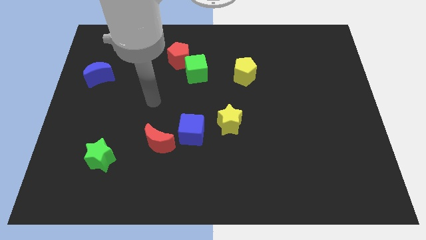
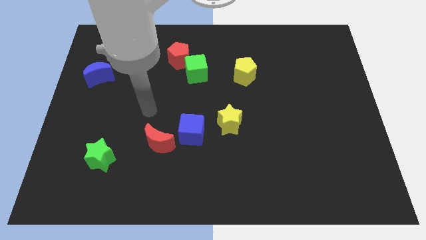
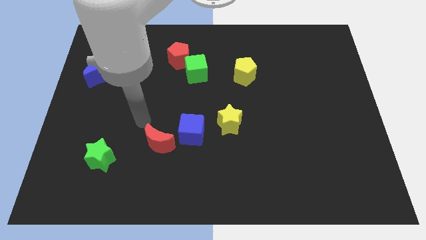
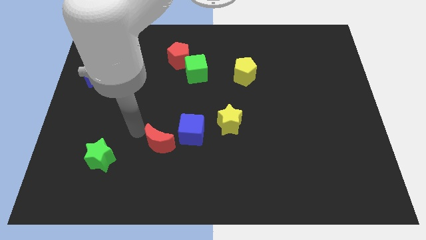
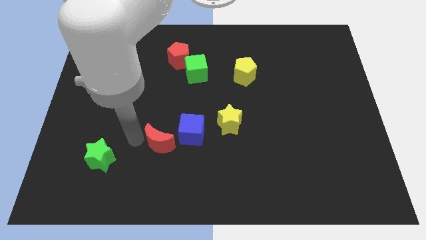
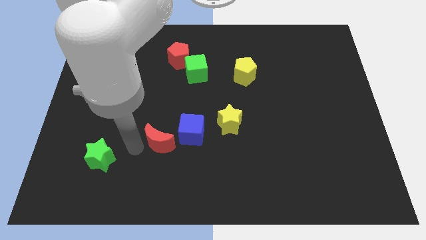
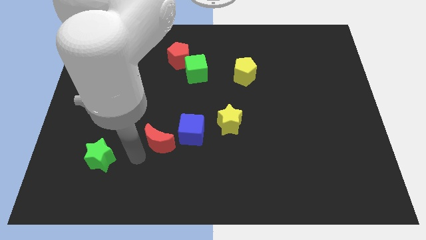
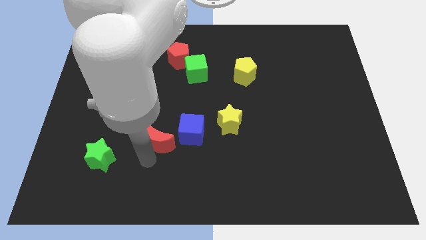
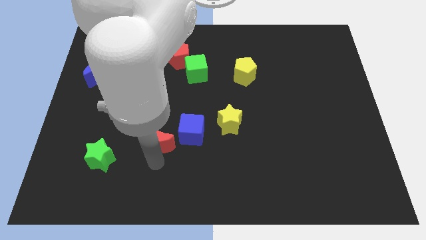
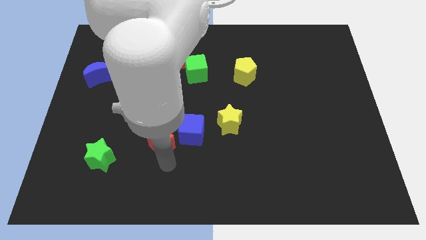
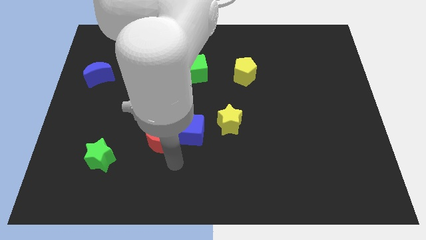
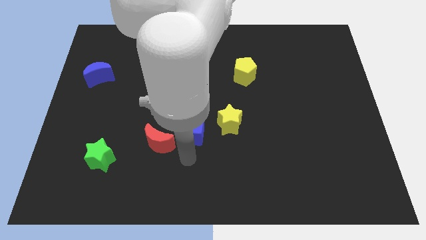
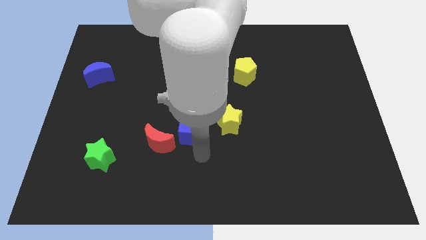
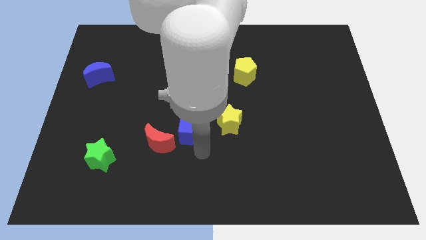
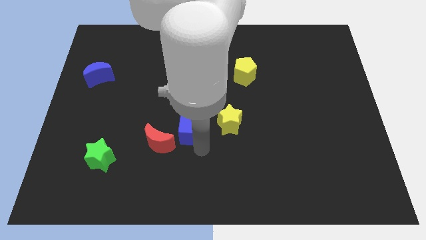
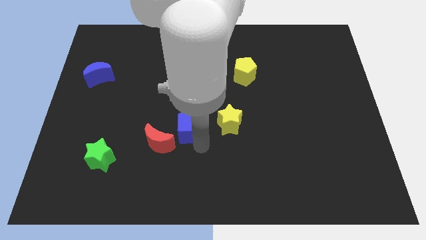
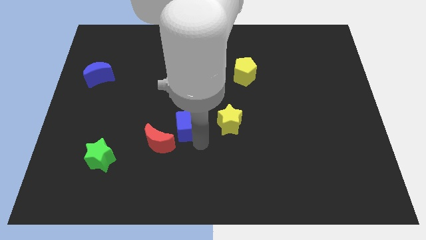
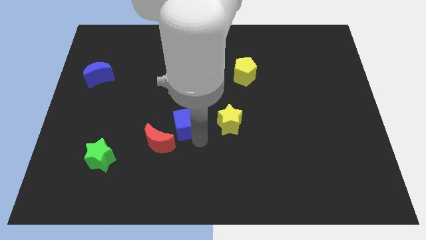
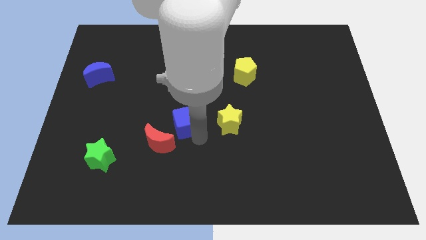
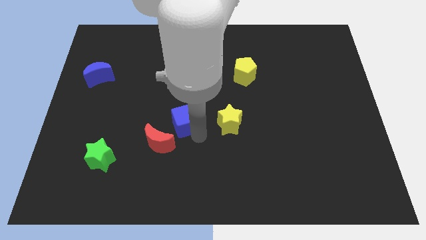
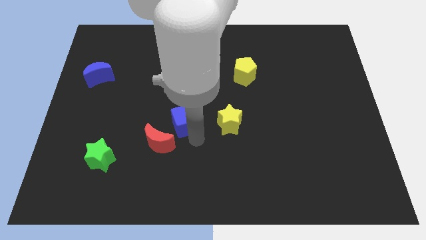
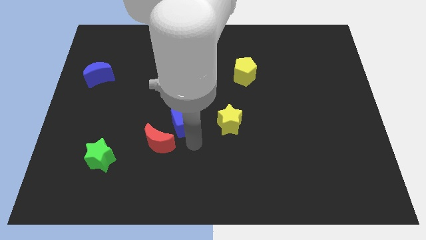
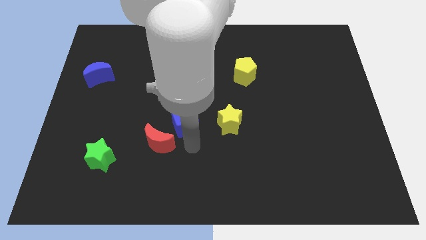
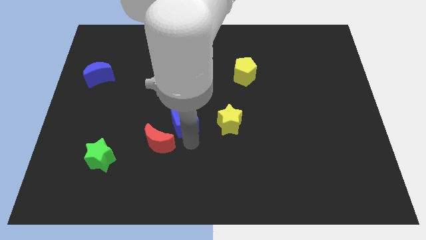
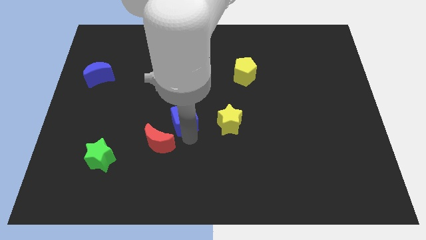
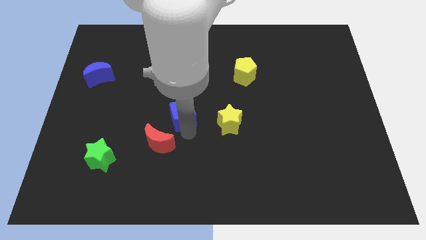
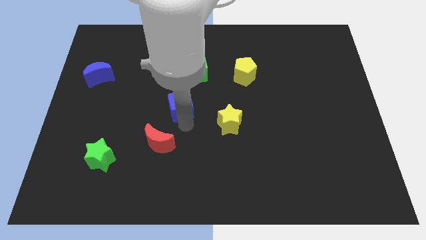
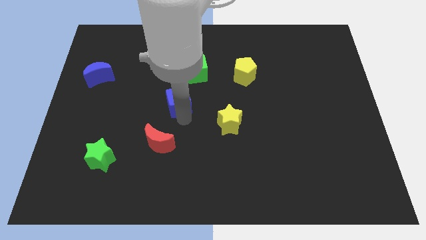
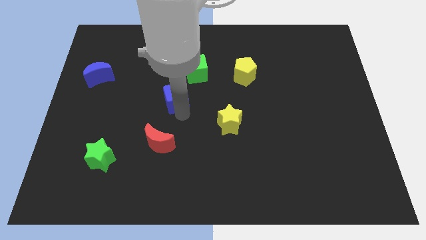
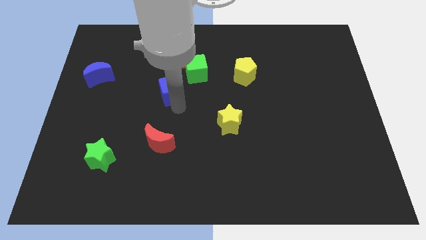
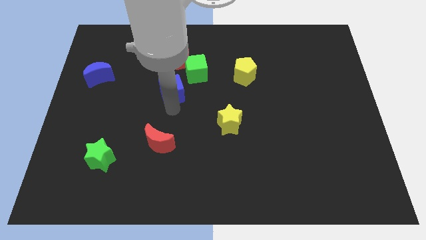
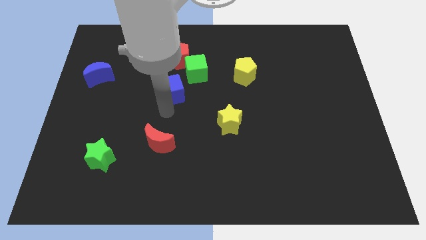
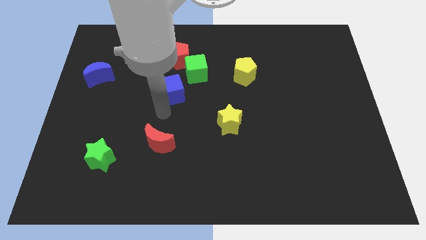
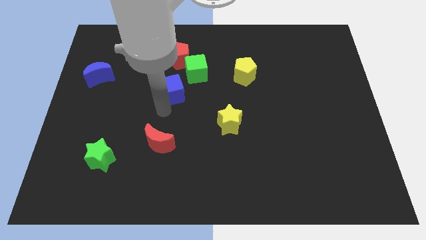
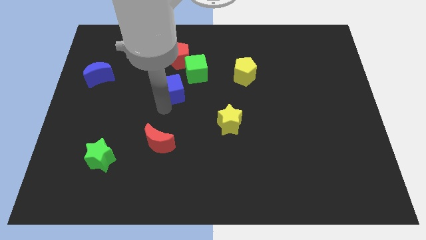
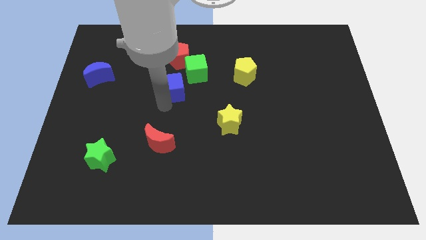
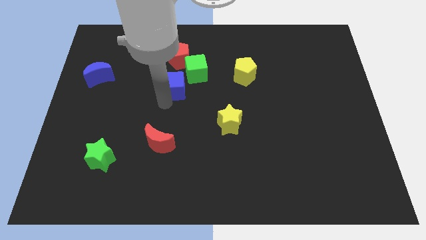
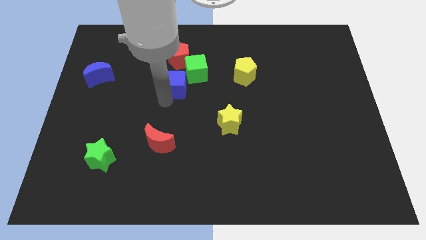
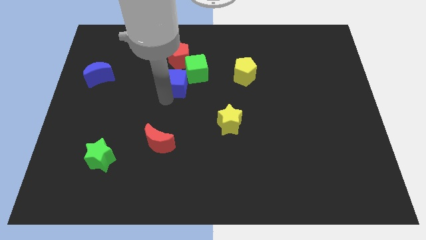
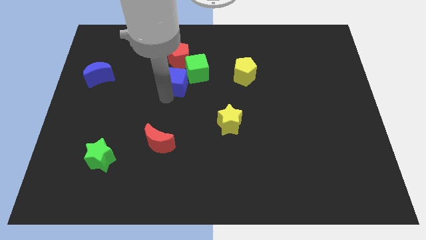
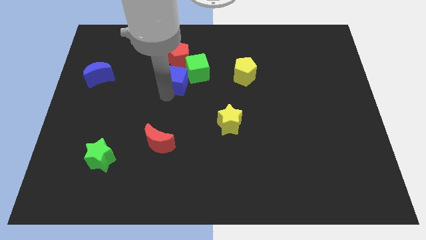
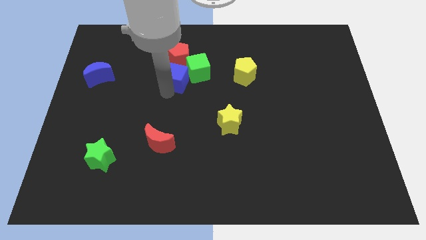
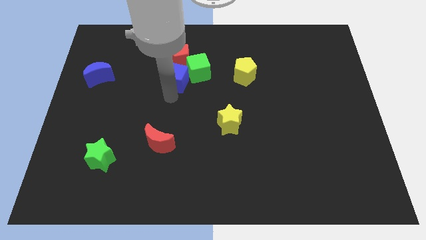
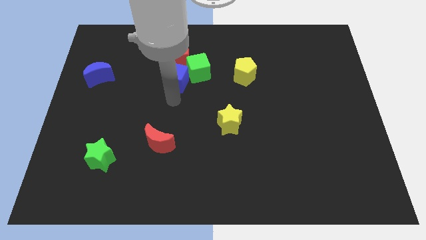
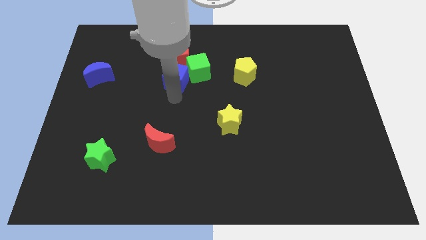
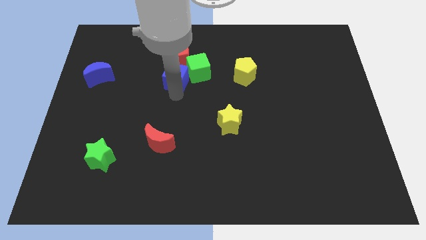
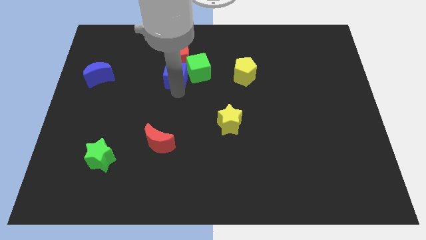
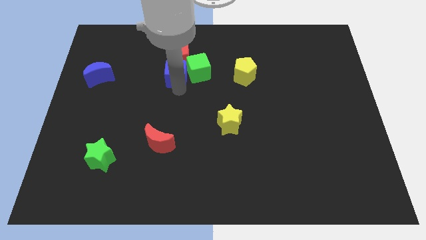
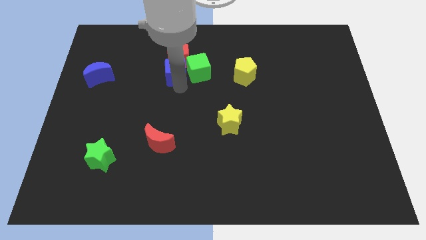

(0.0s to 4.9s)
move the blue cube close to the red pentagon

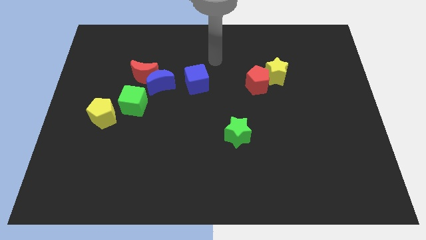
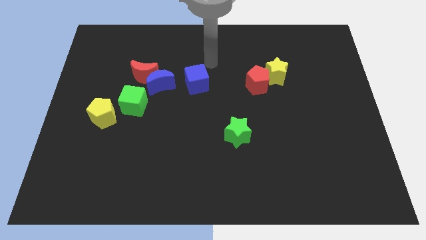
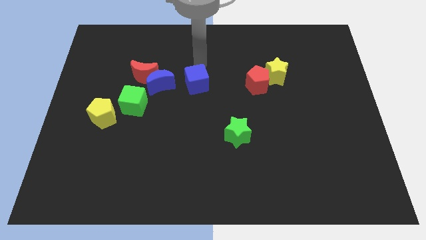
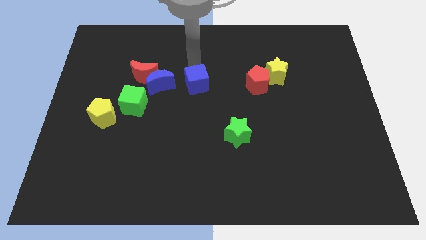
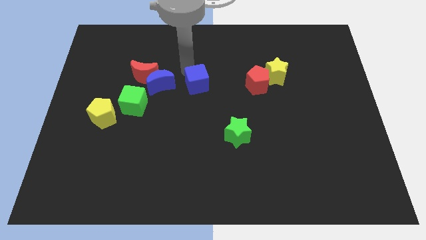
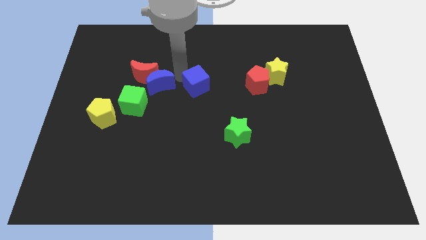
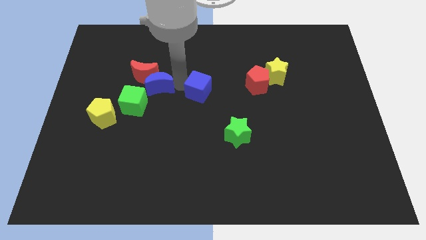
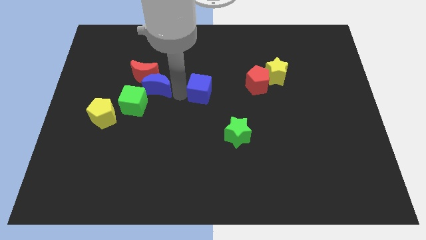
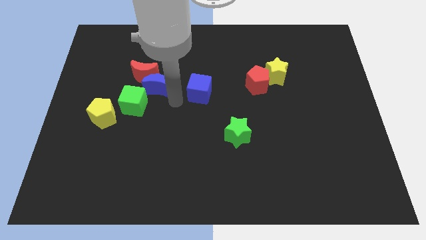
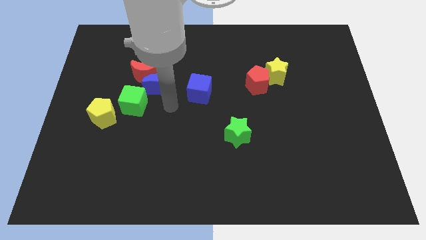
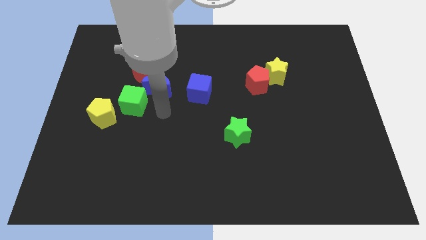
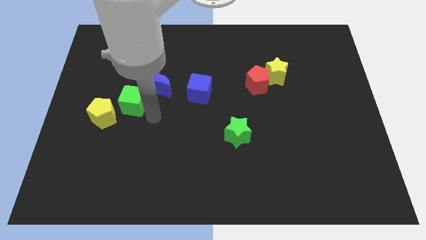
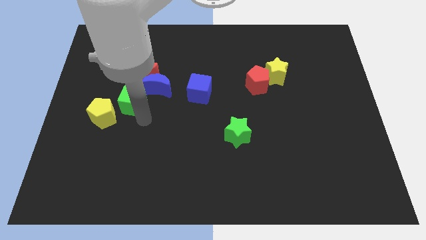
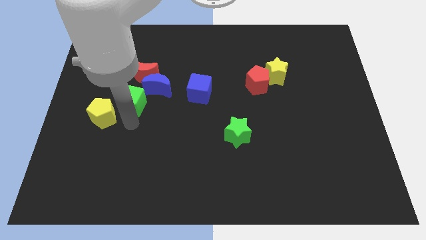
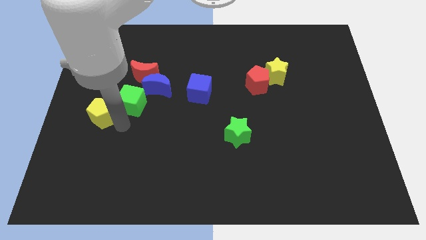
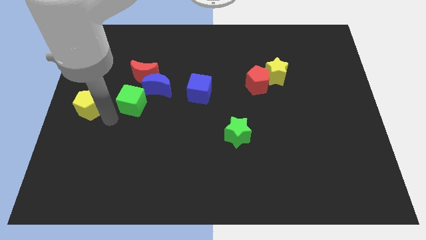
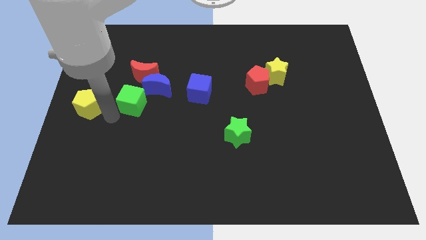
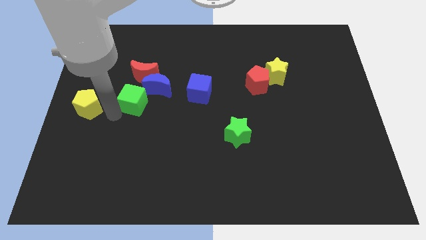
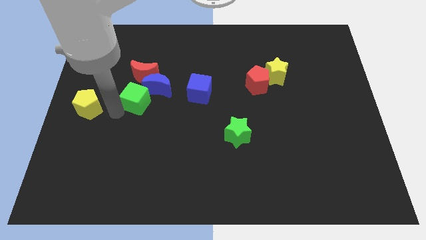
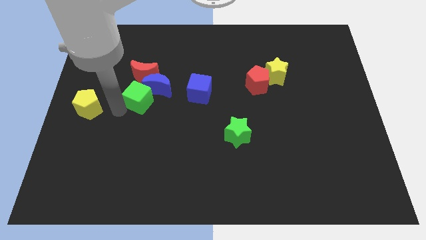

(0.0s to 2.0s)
move the green cube to the blue moon

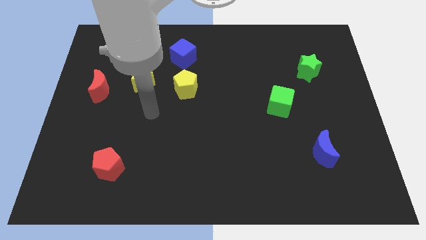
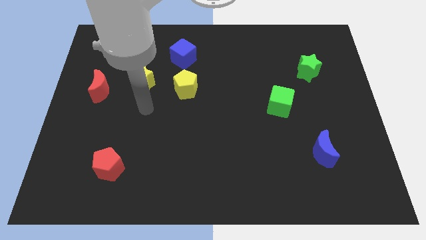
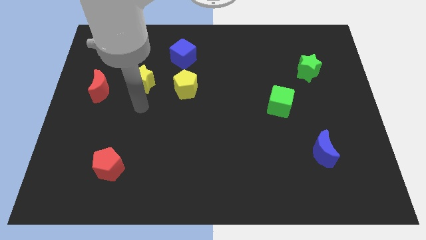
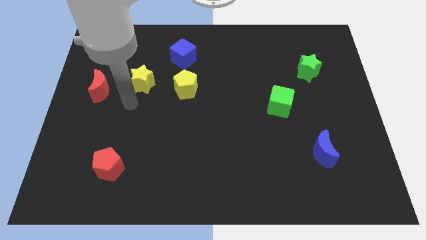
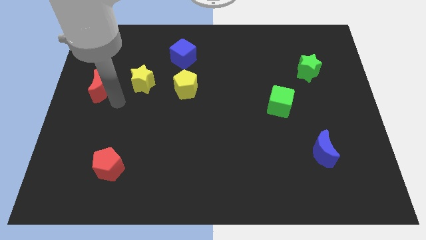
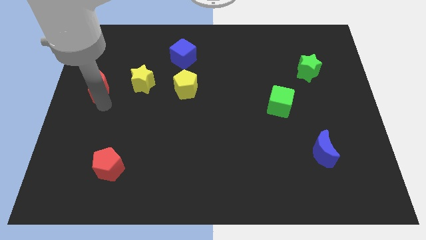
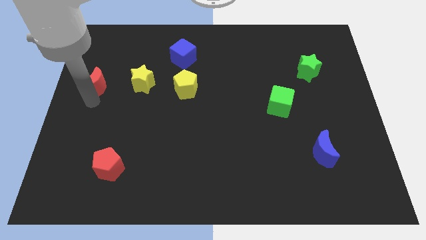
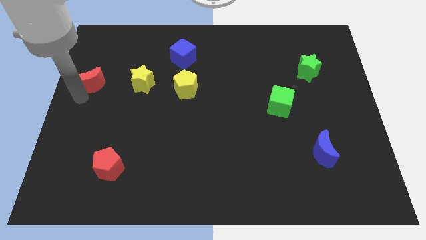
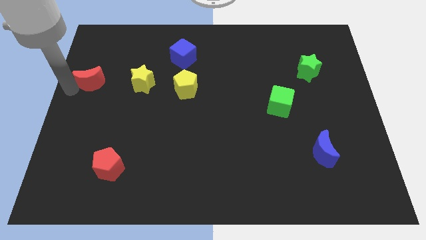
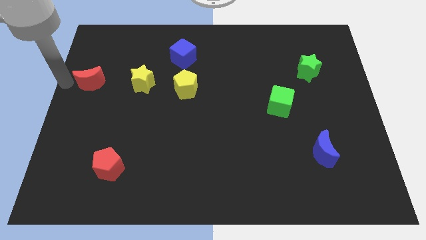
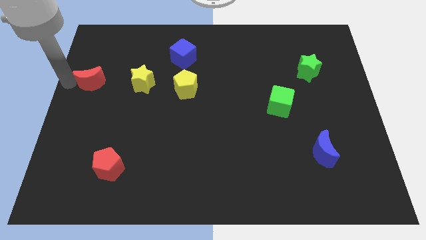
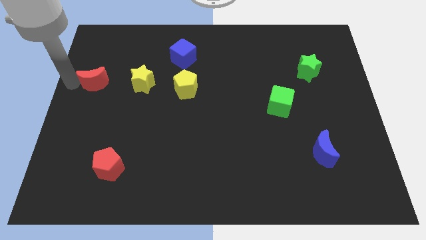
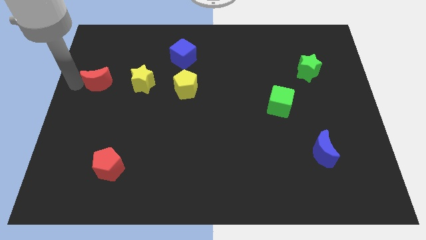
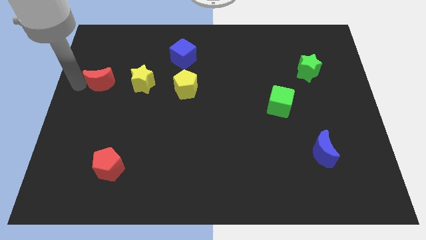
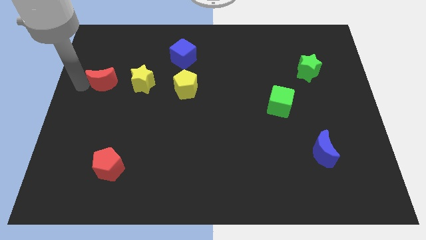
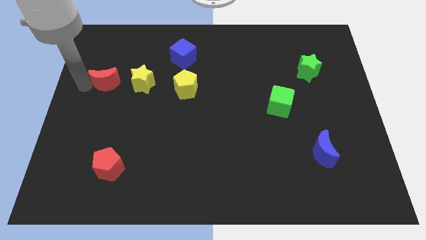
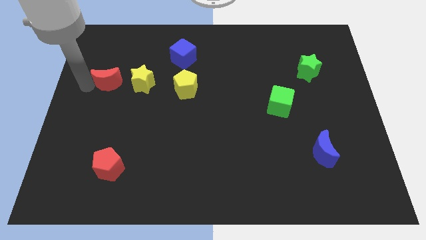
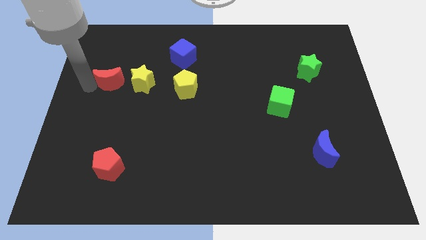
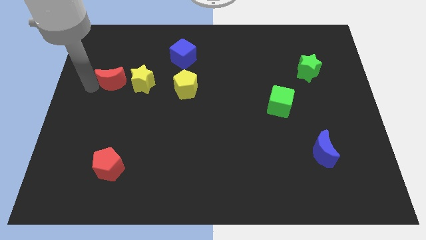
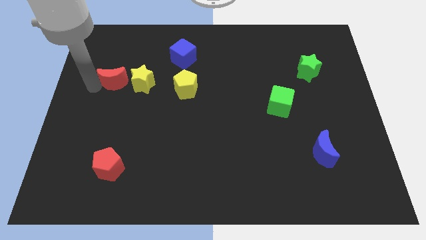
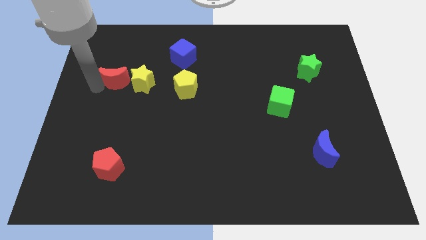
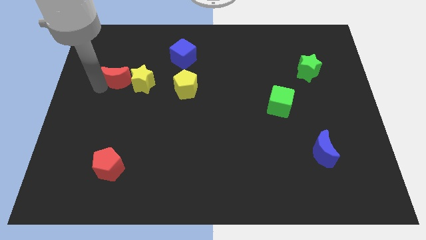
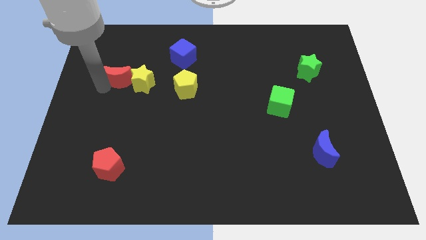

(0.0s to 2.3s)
push the red moon next to the yellow star
